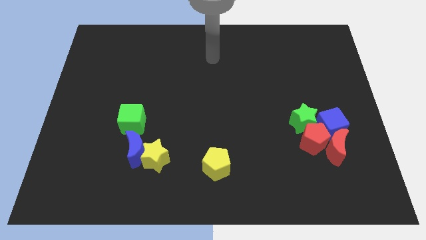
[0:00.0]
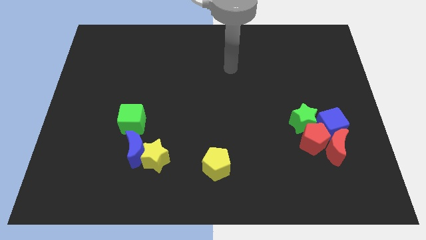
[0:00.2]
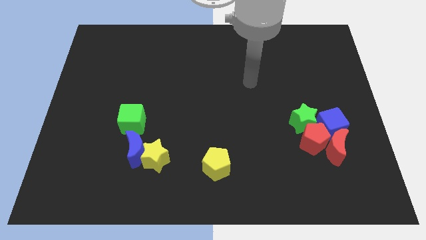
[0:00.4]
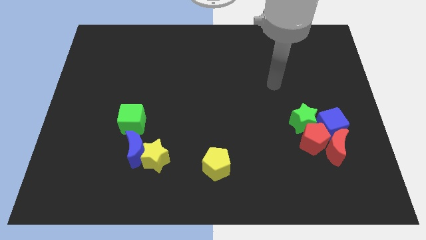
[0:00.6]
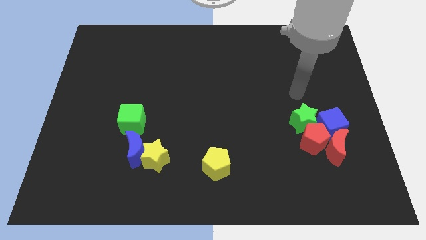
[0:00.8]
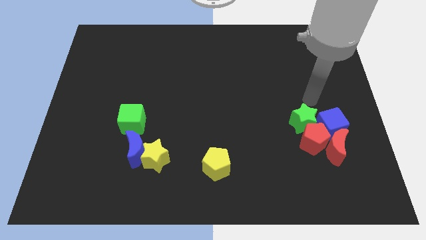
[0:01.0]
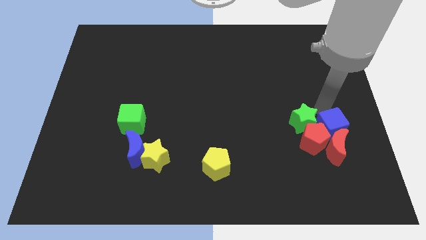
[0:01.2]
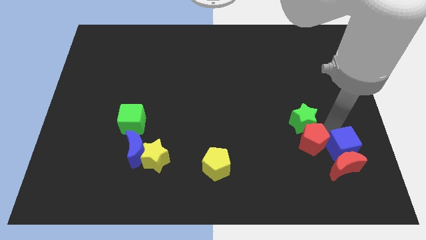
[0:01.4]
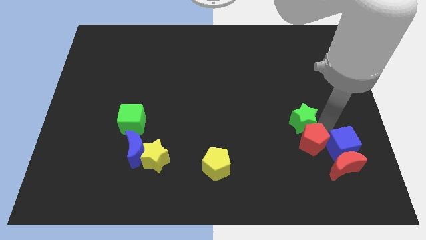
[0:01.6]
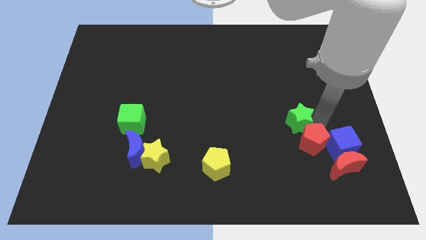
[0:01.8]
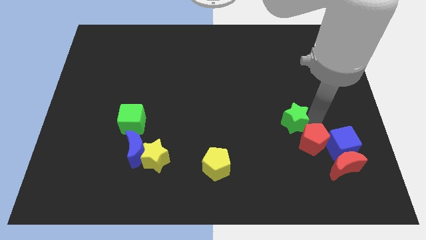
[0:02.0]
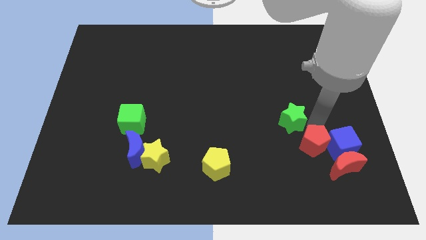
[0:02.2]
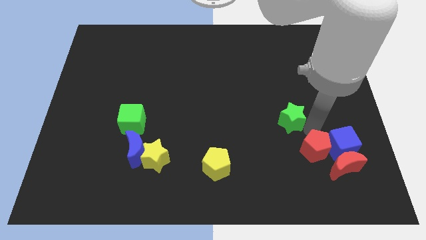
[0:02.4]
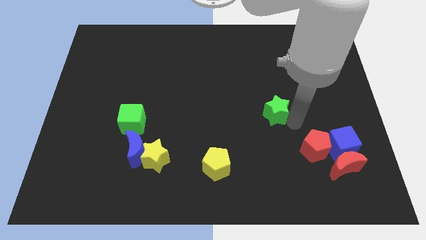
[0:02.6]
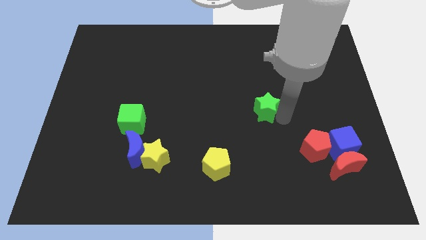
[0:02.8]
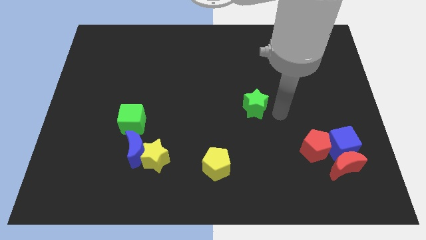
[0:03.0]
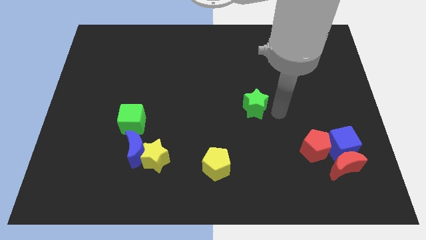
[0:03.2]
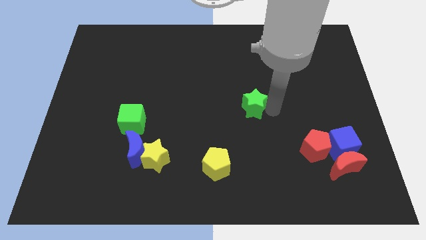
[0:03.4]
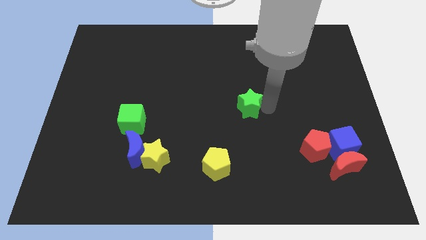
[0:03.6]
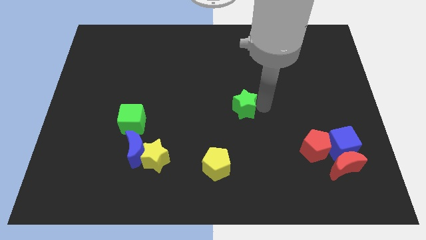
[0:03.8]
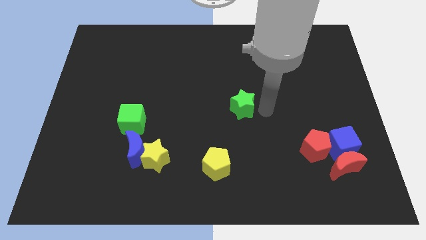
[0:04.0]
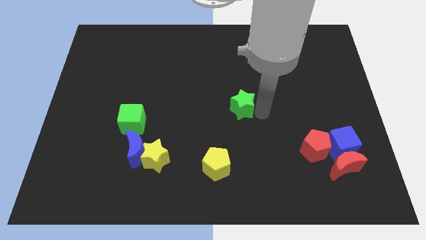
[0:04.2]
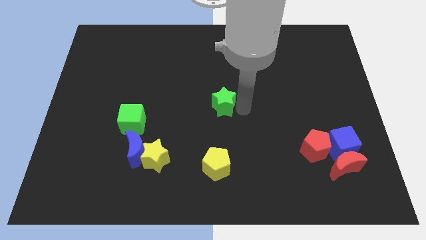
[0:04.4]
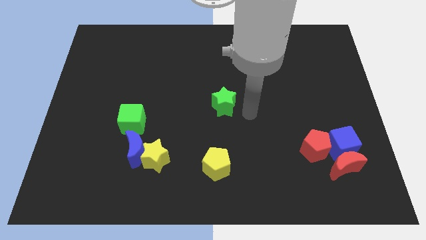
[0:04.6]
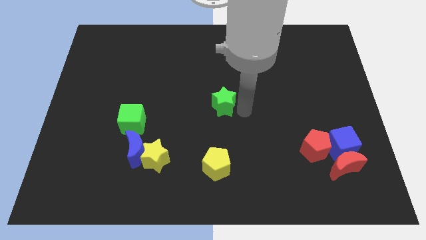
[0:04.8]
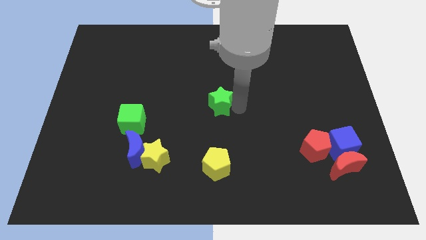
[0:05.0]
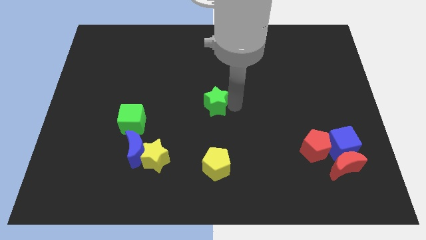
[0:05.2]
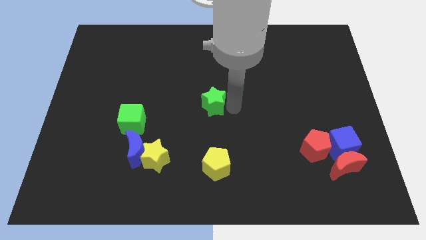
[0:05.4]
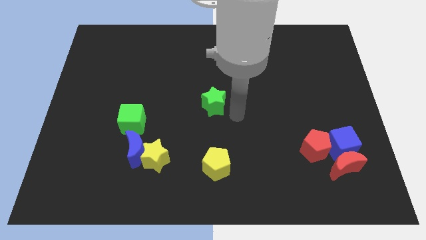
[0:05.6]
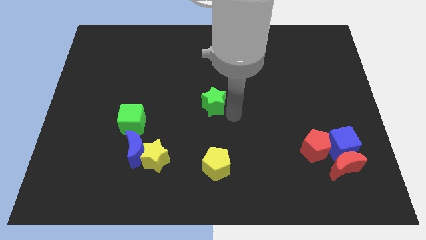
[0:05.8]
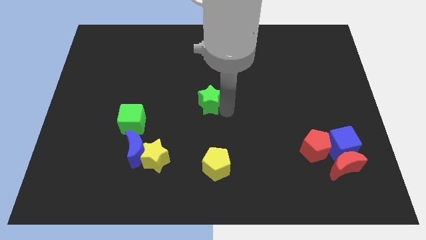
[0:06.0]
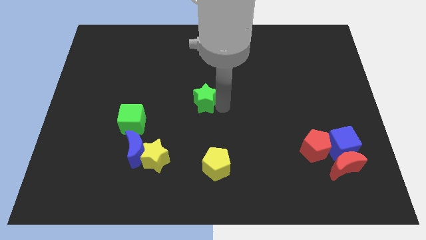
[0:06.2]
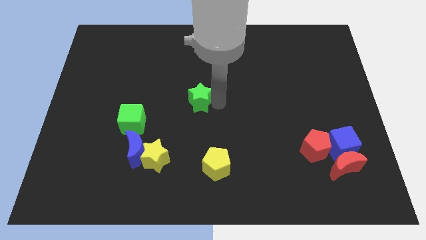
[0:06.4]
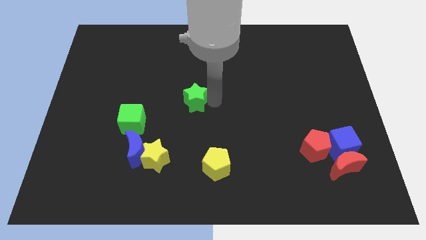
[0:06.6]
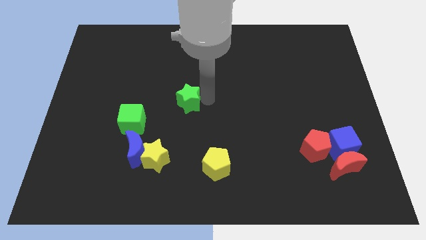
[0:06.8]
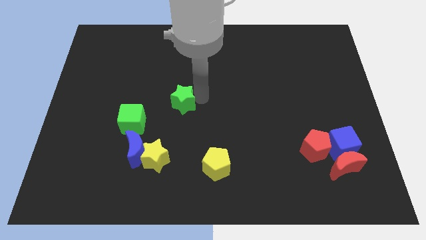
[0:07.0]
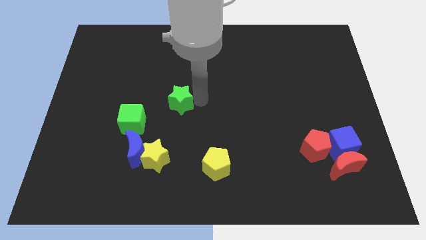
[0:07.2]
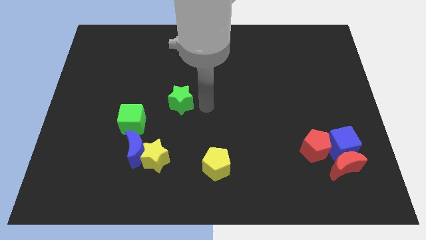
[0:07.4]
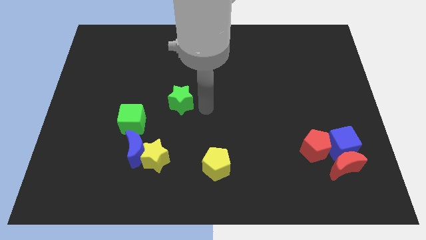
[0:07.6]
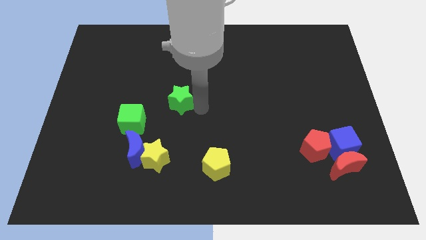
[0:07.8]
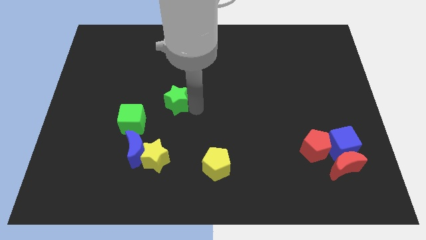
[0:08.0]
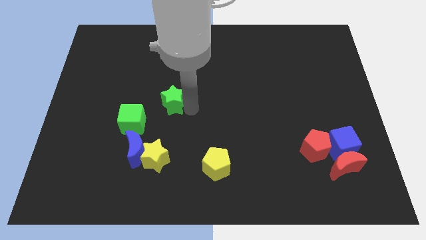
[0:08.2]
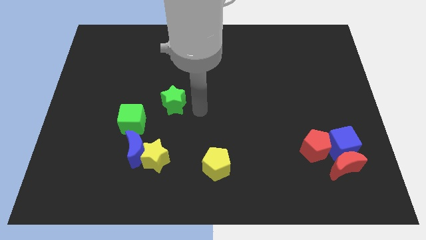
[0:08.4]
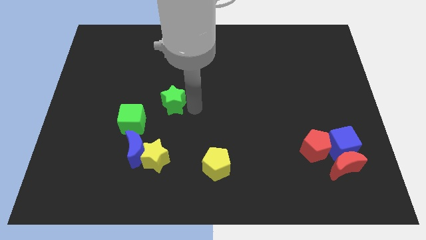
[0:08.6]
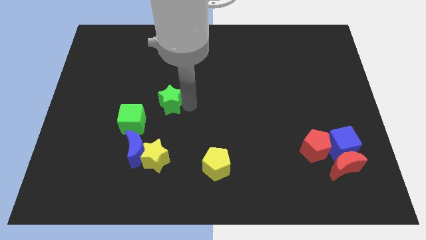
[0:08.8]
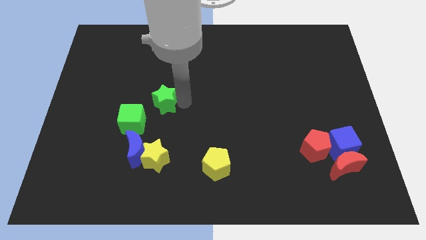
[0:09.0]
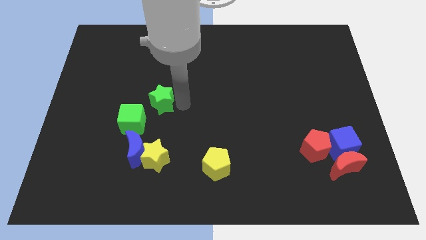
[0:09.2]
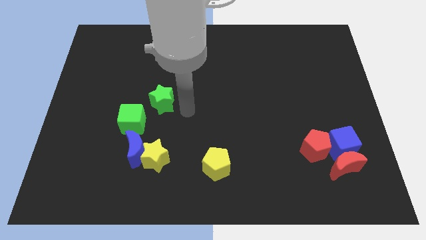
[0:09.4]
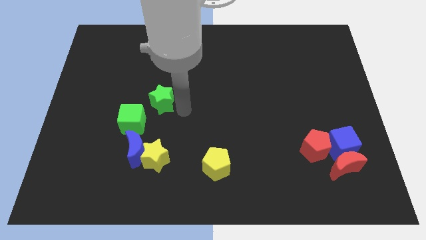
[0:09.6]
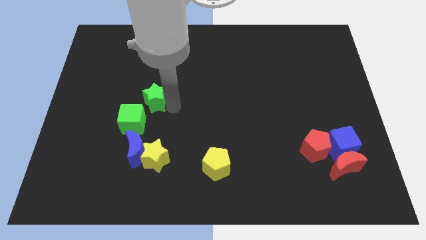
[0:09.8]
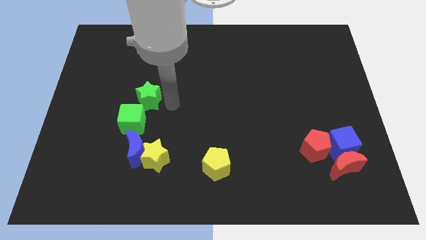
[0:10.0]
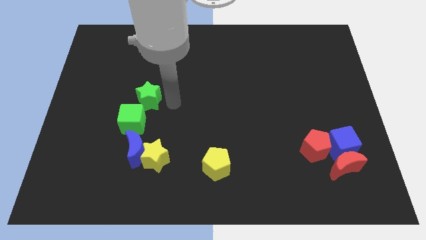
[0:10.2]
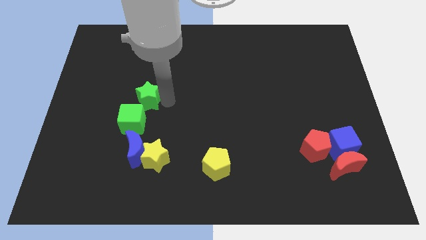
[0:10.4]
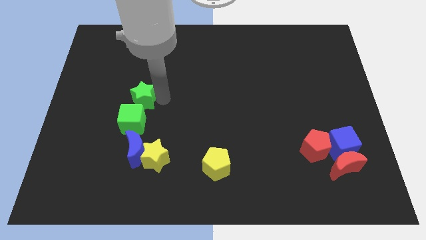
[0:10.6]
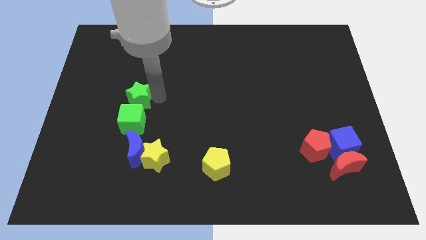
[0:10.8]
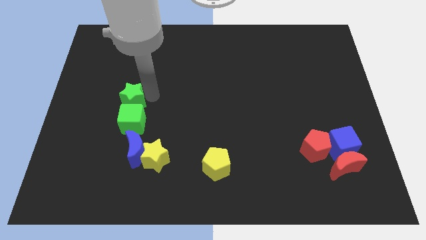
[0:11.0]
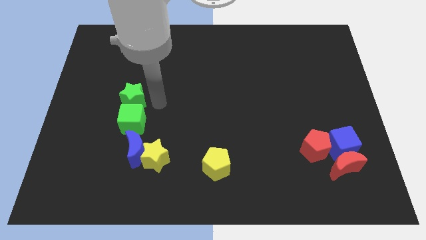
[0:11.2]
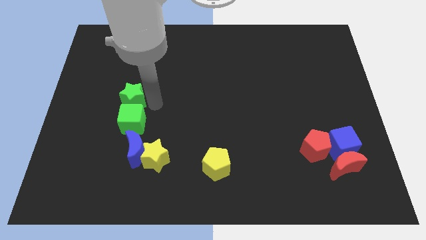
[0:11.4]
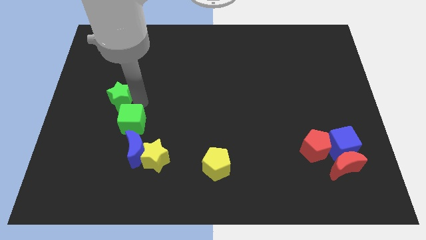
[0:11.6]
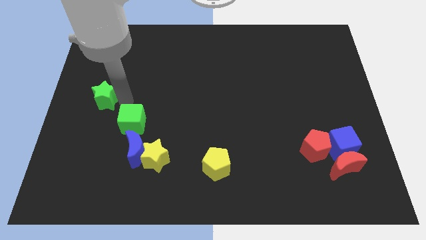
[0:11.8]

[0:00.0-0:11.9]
slide the green star to the center left

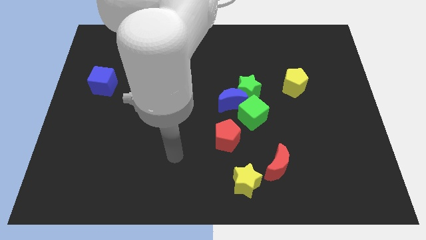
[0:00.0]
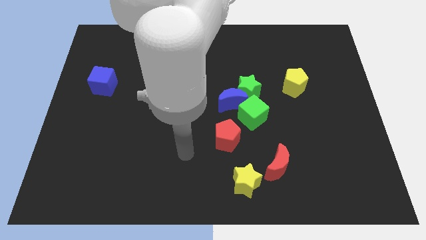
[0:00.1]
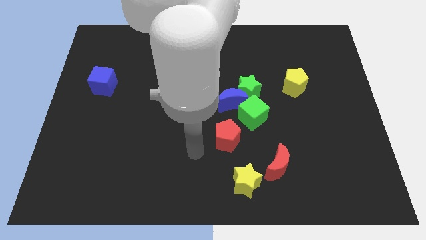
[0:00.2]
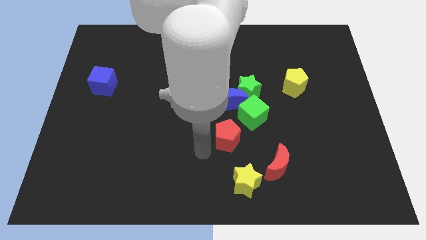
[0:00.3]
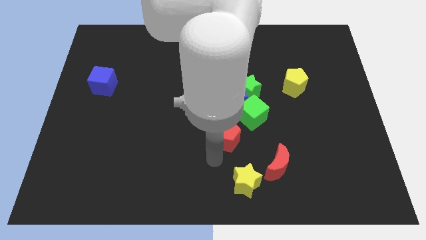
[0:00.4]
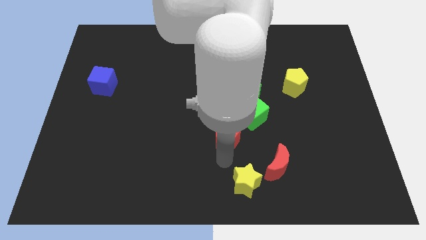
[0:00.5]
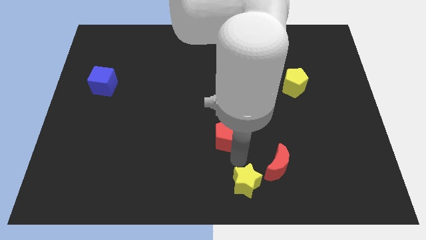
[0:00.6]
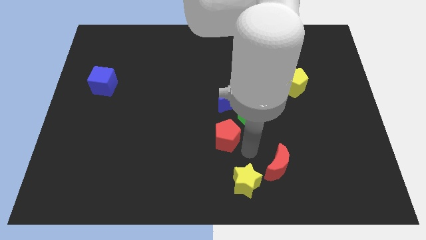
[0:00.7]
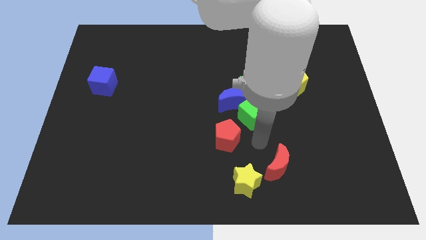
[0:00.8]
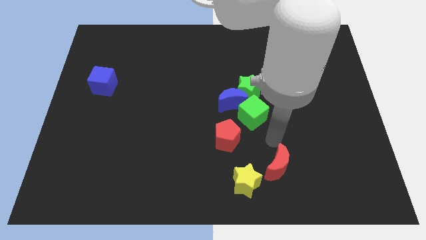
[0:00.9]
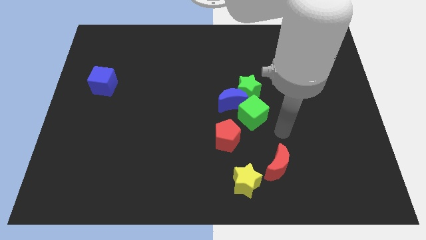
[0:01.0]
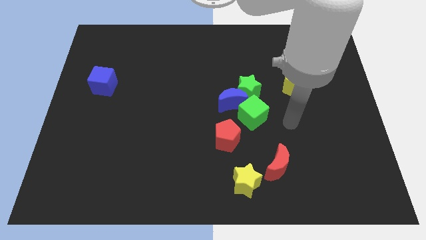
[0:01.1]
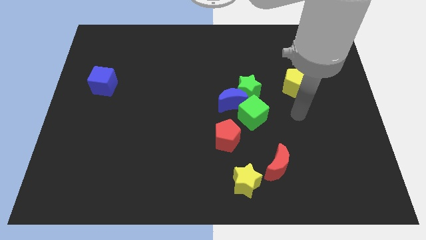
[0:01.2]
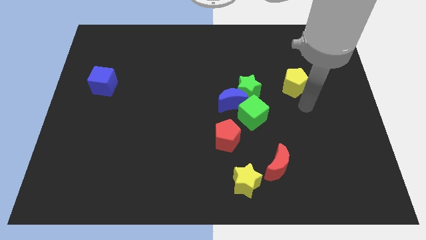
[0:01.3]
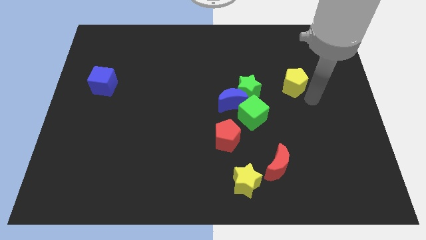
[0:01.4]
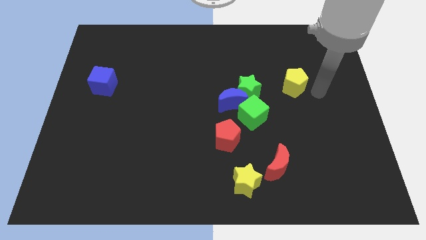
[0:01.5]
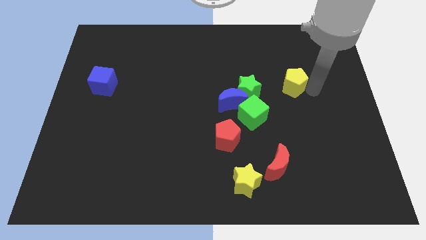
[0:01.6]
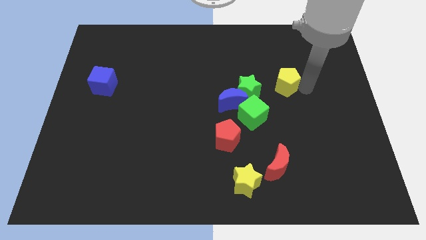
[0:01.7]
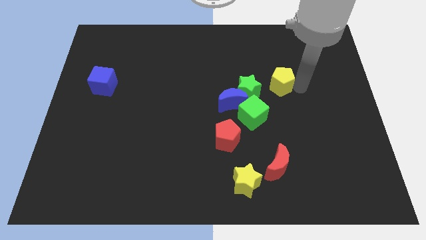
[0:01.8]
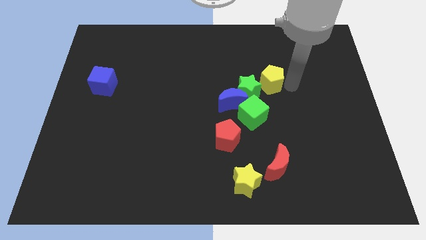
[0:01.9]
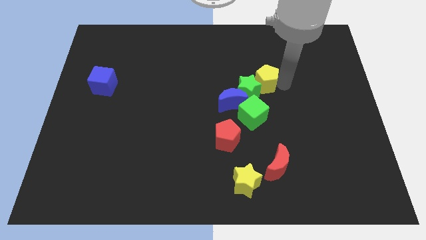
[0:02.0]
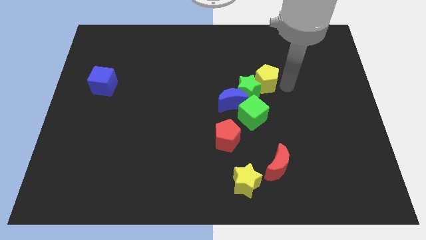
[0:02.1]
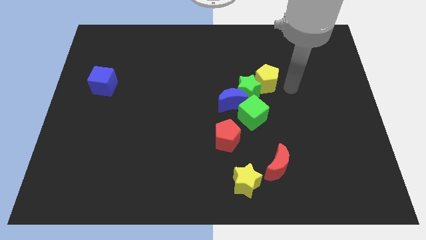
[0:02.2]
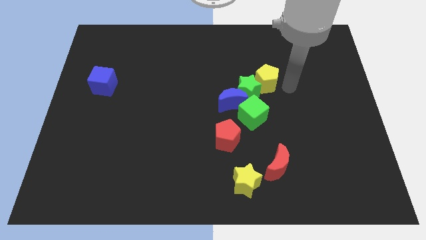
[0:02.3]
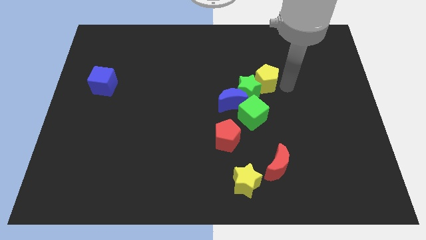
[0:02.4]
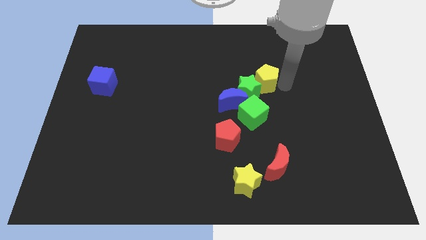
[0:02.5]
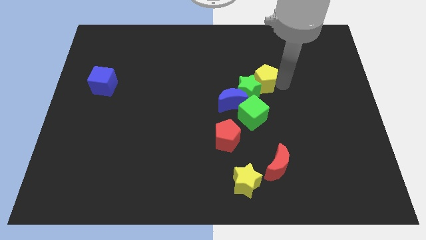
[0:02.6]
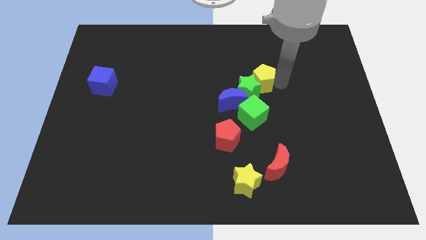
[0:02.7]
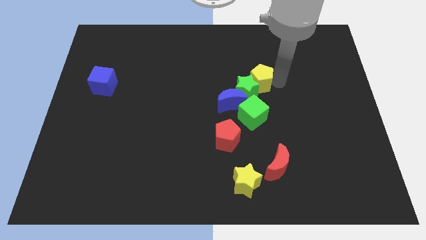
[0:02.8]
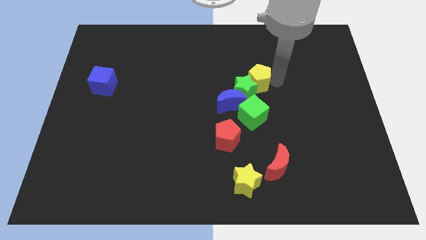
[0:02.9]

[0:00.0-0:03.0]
push the yellow pentagon to the center
